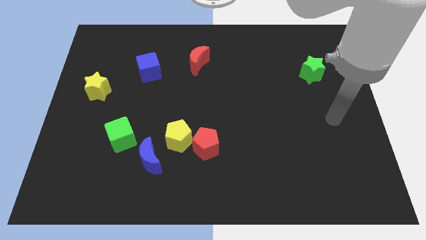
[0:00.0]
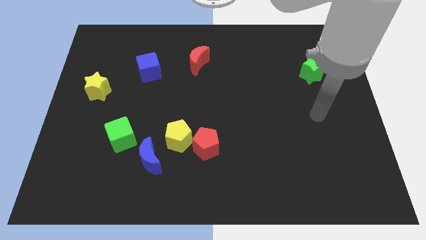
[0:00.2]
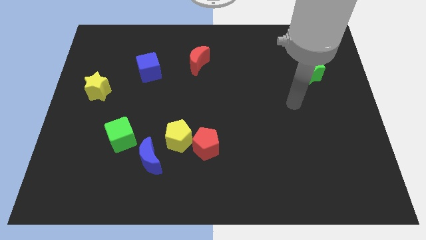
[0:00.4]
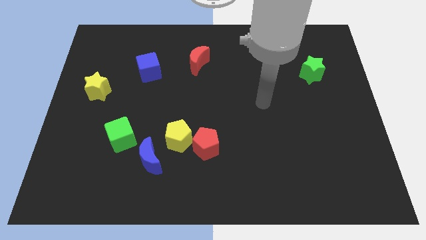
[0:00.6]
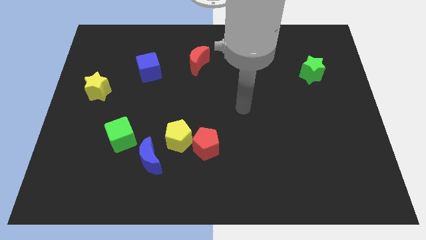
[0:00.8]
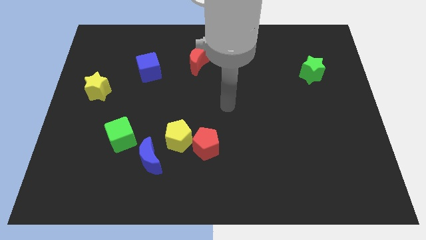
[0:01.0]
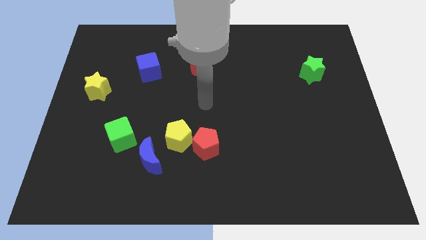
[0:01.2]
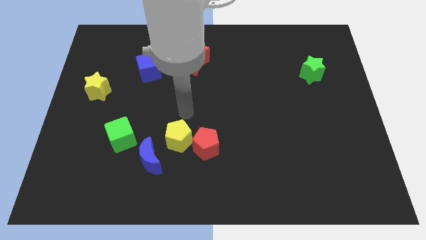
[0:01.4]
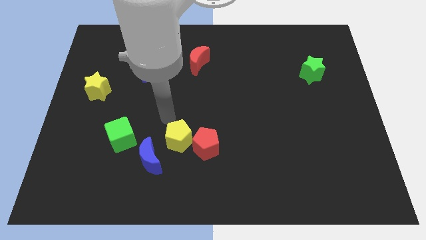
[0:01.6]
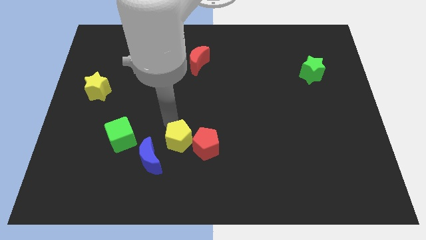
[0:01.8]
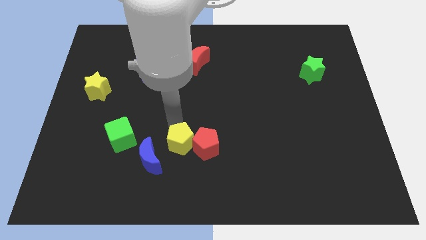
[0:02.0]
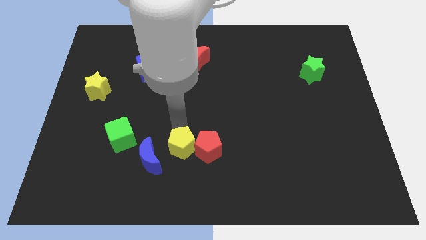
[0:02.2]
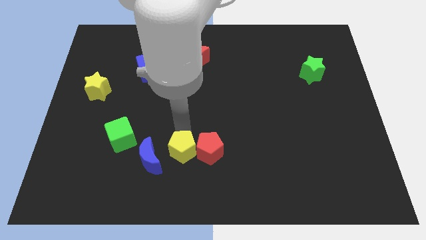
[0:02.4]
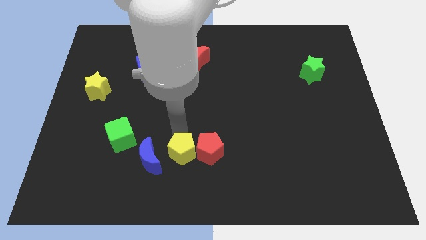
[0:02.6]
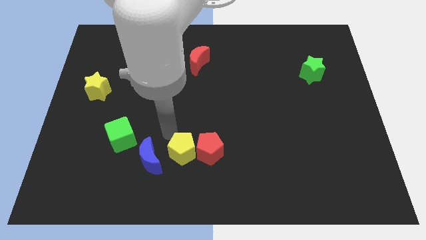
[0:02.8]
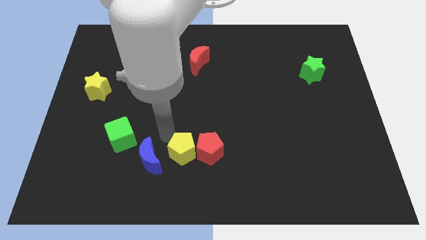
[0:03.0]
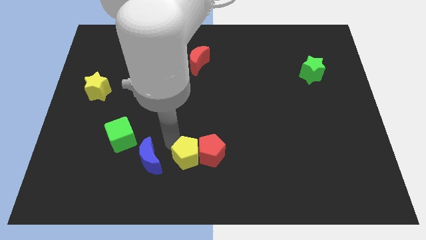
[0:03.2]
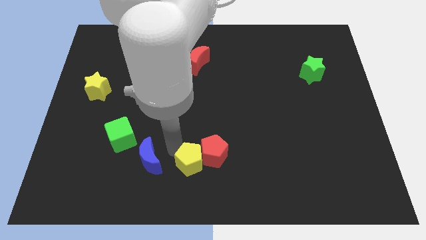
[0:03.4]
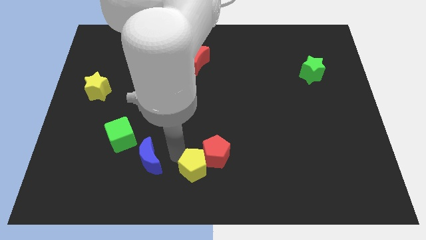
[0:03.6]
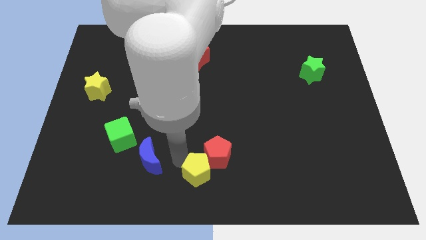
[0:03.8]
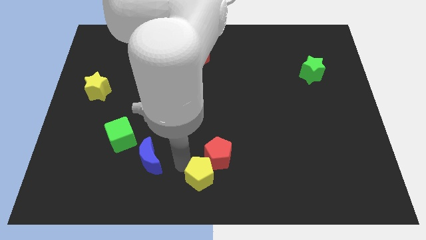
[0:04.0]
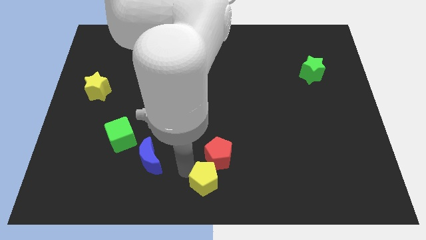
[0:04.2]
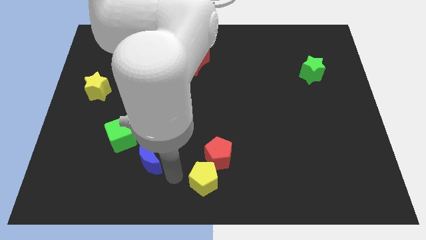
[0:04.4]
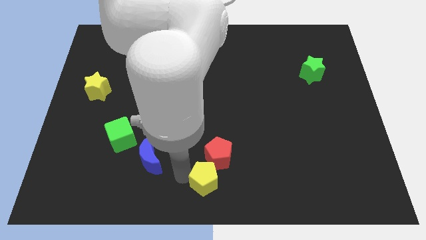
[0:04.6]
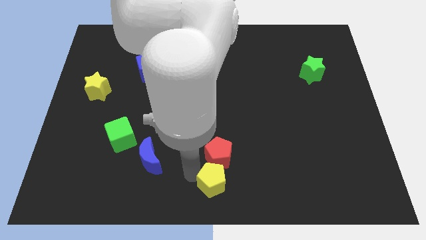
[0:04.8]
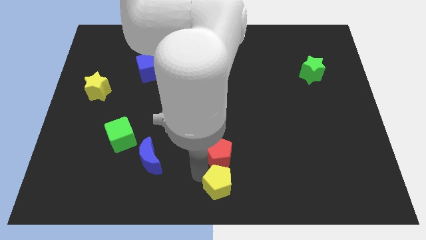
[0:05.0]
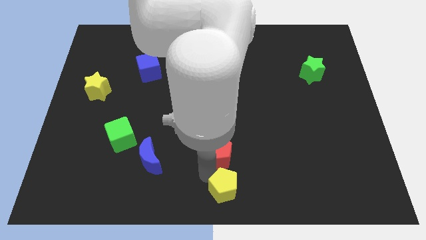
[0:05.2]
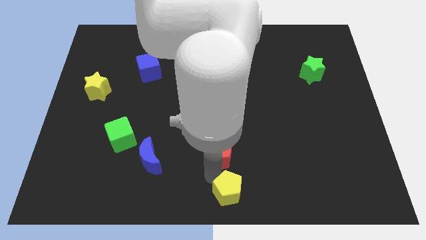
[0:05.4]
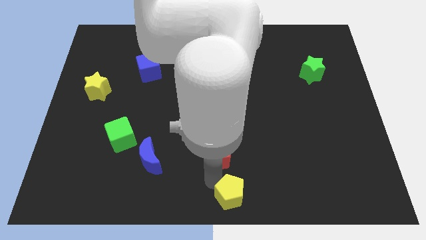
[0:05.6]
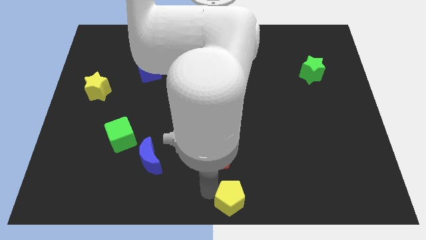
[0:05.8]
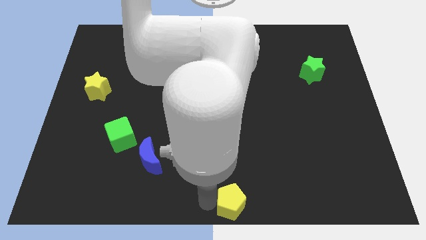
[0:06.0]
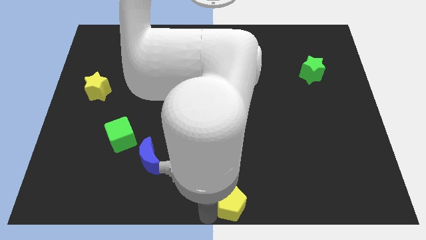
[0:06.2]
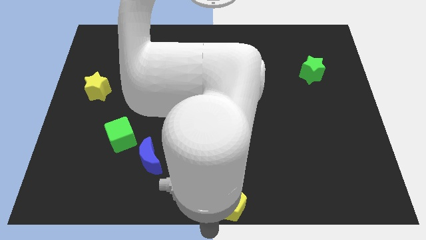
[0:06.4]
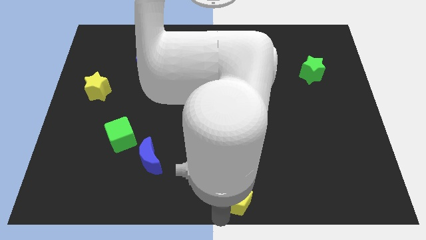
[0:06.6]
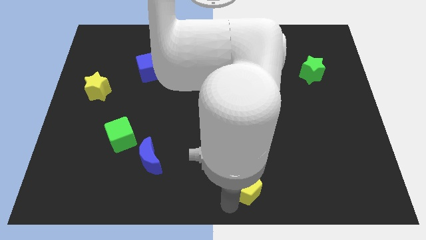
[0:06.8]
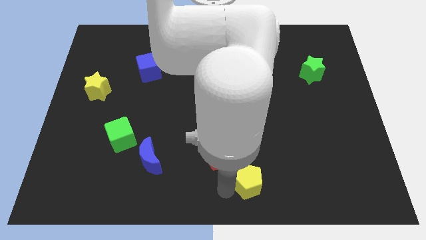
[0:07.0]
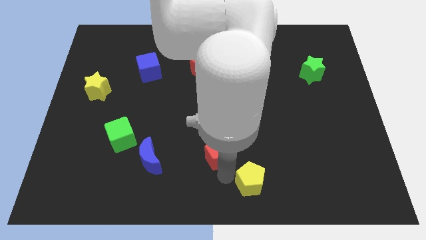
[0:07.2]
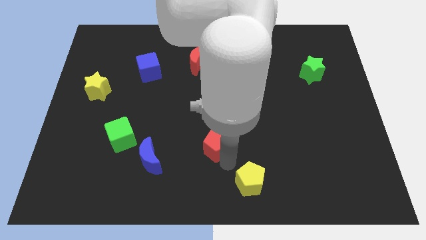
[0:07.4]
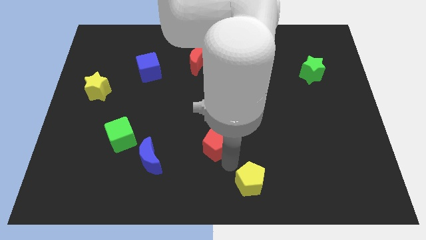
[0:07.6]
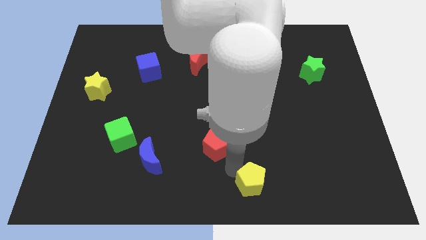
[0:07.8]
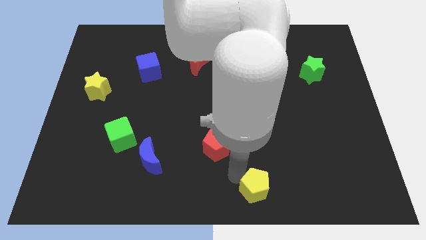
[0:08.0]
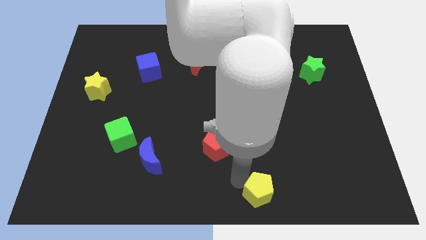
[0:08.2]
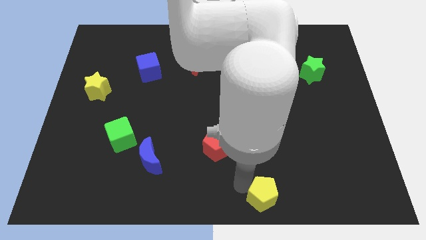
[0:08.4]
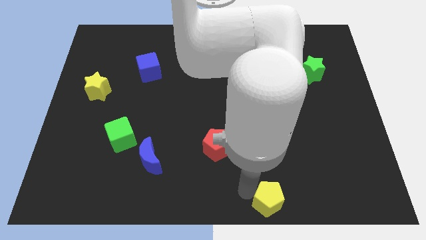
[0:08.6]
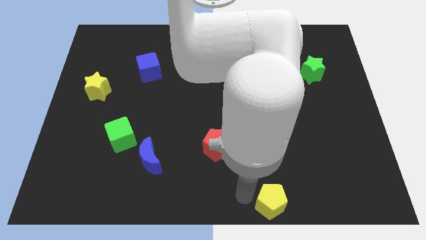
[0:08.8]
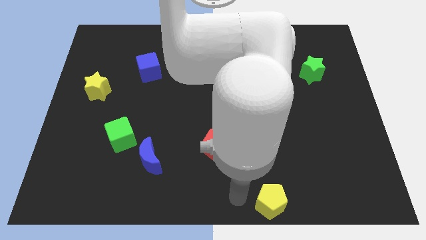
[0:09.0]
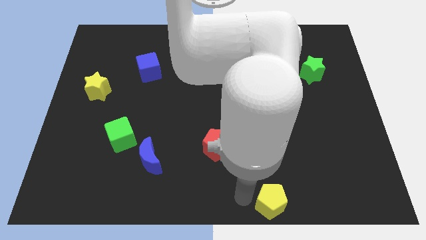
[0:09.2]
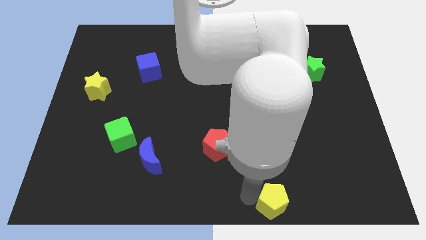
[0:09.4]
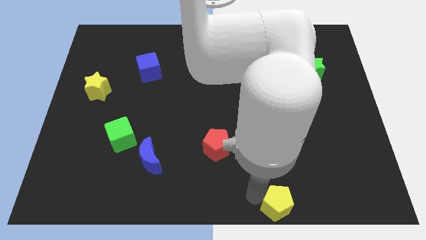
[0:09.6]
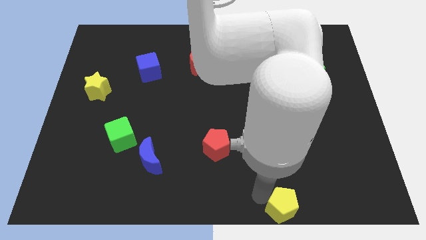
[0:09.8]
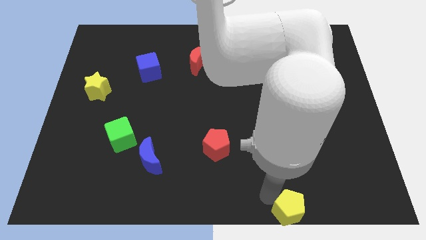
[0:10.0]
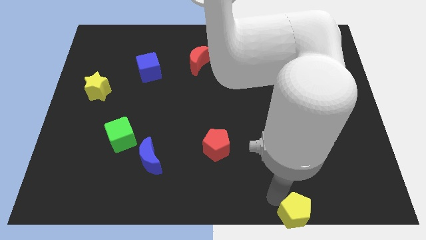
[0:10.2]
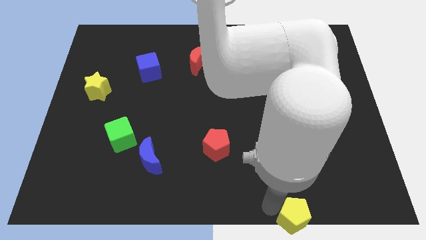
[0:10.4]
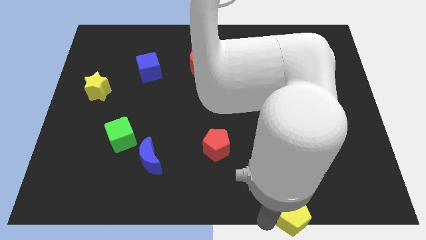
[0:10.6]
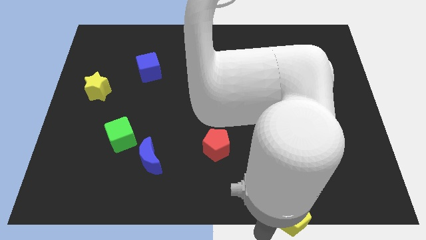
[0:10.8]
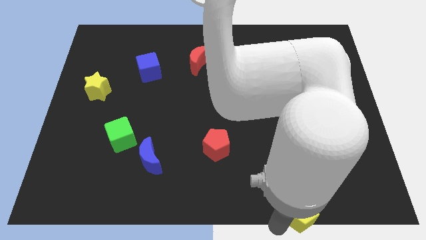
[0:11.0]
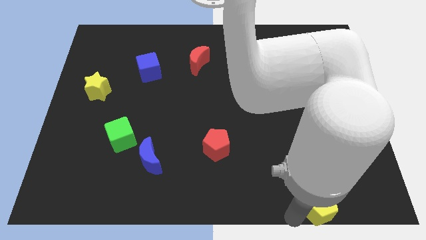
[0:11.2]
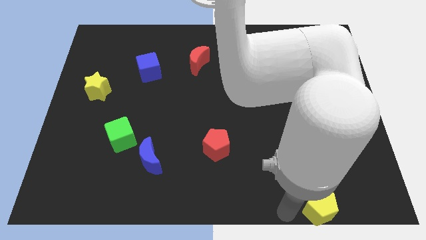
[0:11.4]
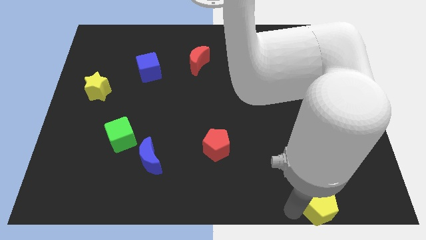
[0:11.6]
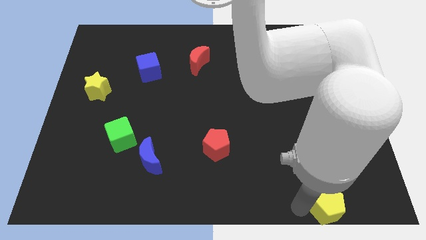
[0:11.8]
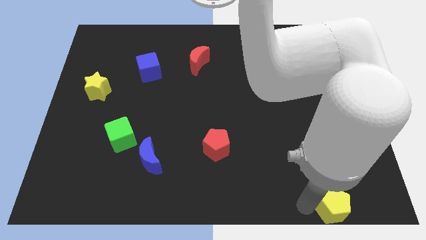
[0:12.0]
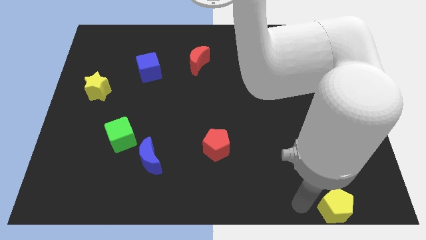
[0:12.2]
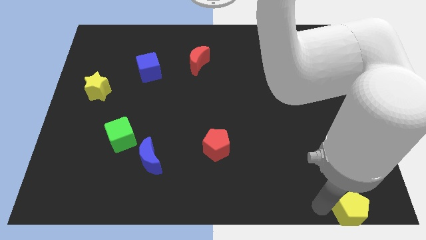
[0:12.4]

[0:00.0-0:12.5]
push the yellow pentagon to the bottom right of the board
